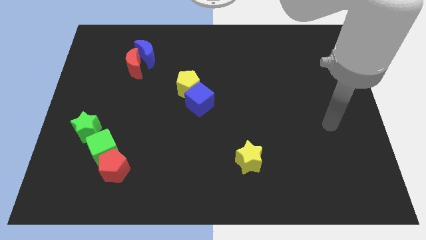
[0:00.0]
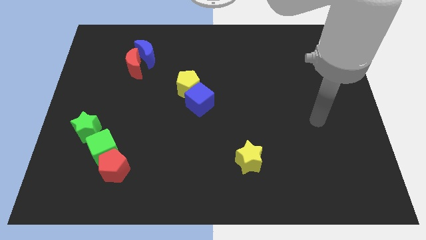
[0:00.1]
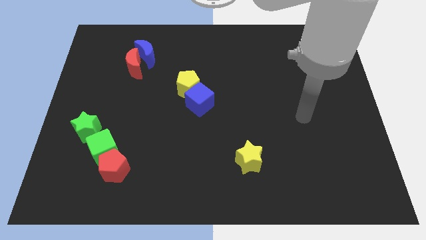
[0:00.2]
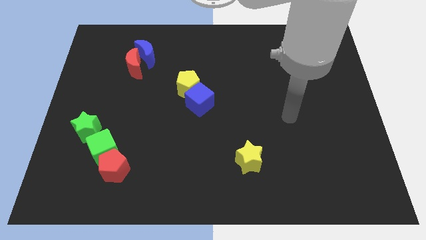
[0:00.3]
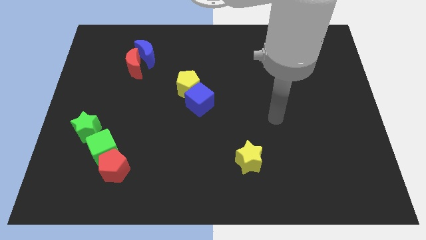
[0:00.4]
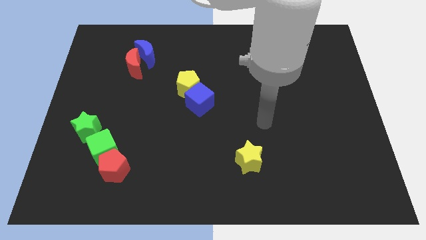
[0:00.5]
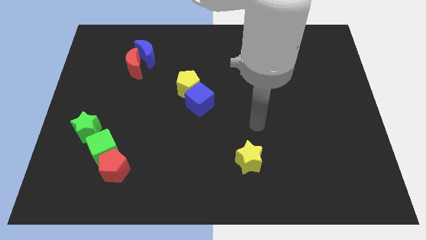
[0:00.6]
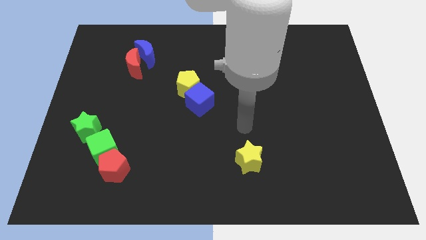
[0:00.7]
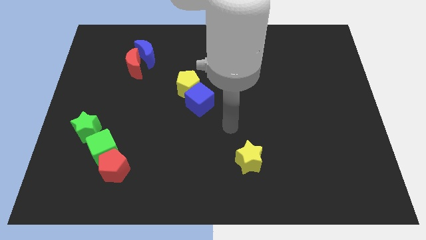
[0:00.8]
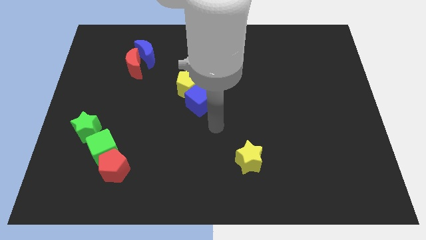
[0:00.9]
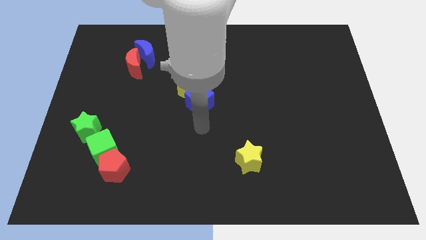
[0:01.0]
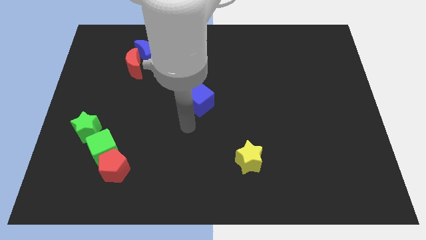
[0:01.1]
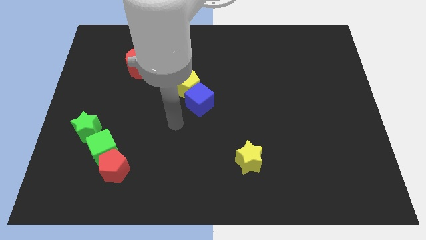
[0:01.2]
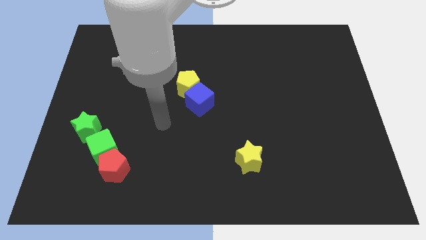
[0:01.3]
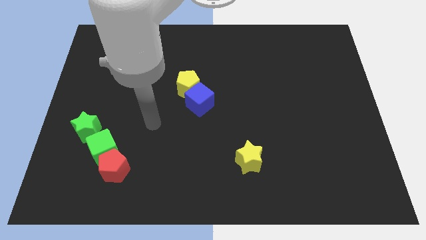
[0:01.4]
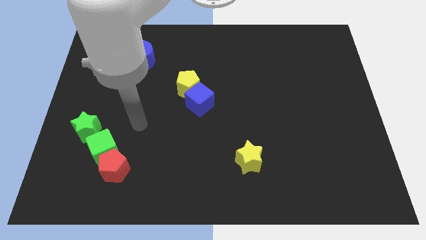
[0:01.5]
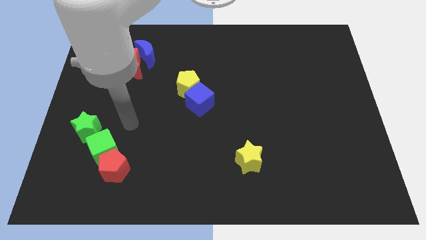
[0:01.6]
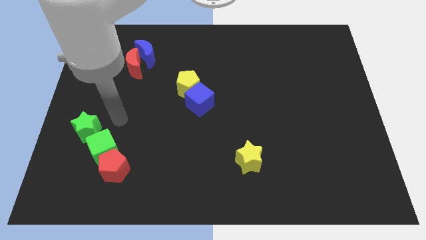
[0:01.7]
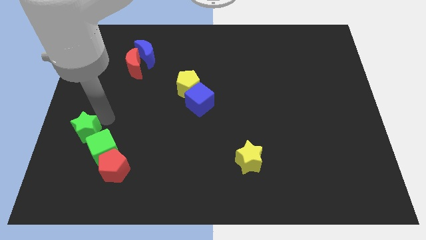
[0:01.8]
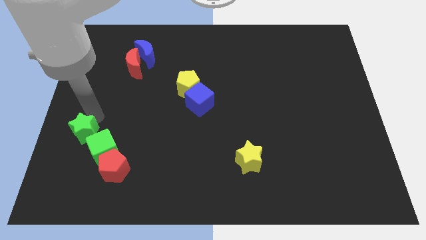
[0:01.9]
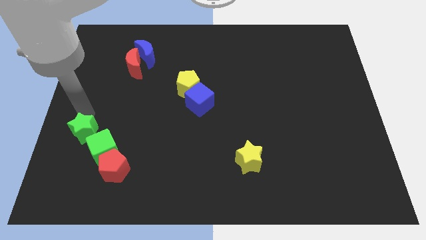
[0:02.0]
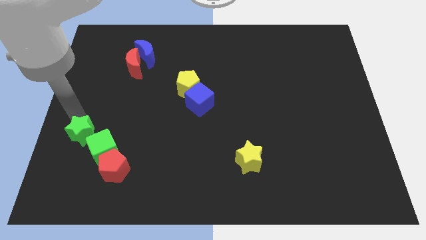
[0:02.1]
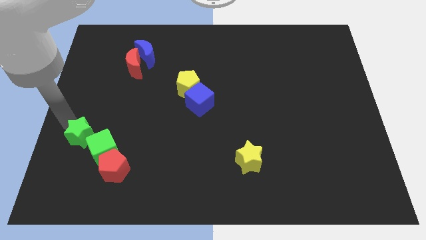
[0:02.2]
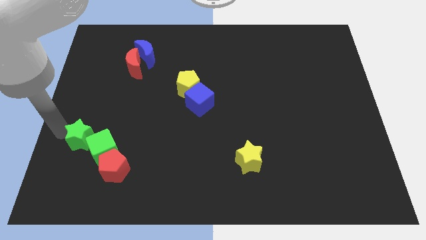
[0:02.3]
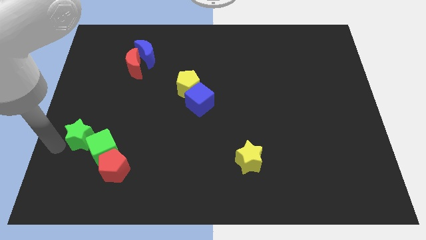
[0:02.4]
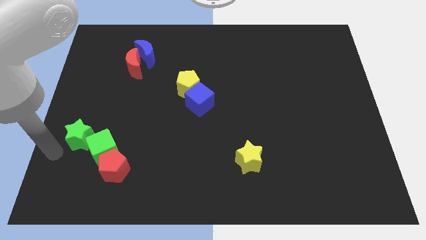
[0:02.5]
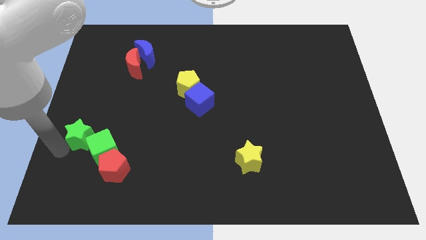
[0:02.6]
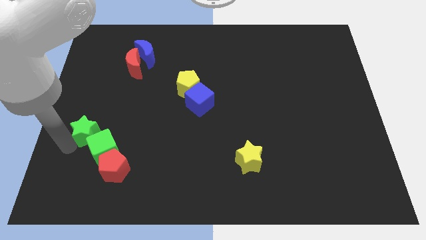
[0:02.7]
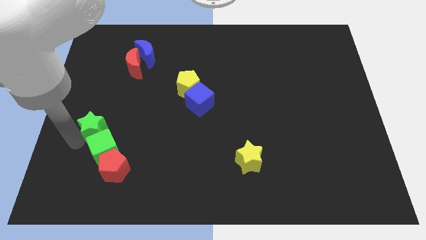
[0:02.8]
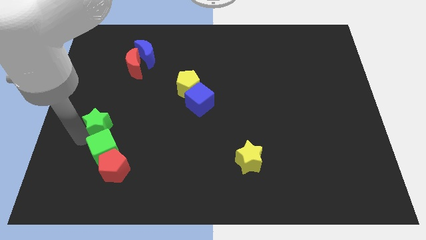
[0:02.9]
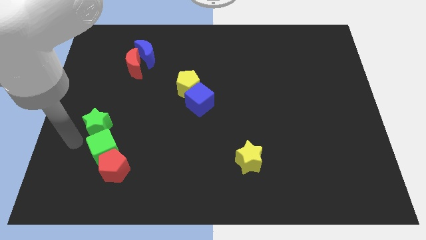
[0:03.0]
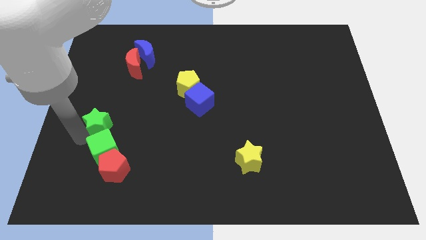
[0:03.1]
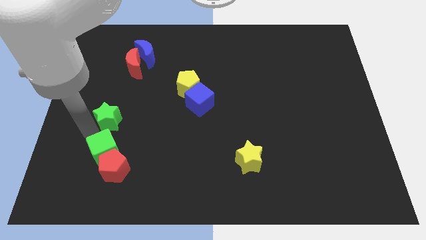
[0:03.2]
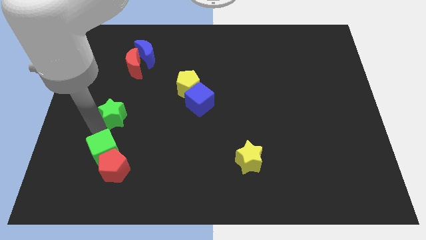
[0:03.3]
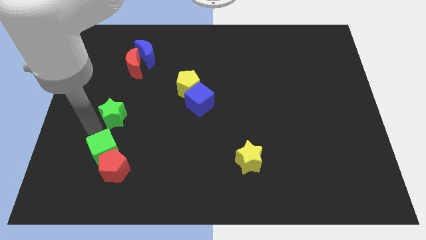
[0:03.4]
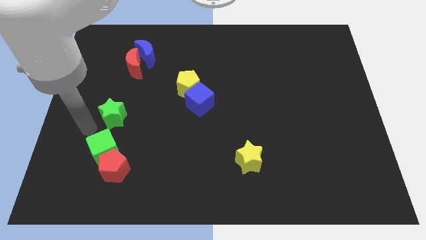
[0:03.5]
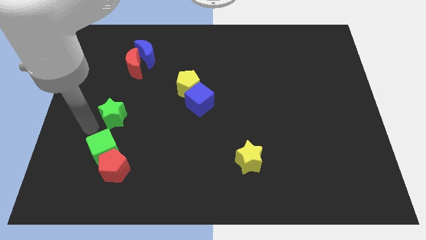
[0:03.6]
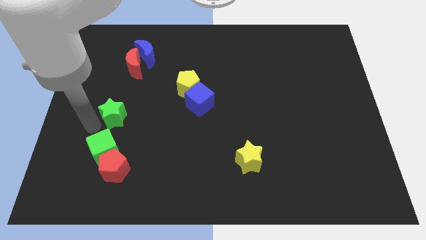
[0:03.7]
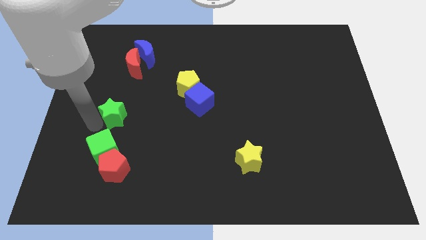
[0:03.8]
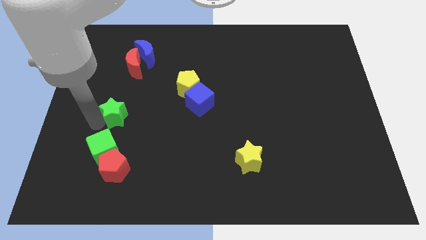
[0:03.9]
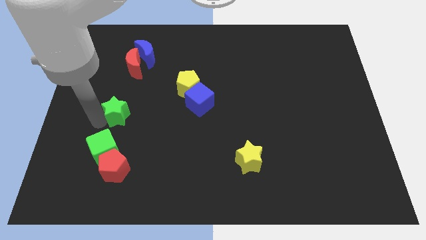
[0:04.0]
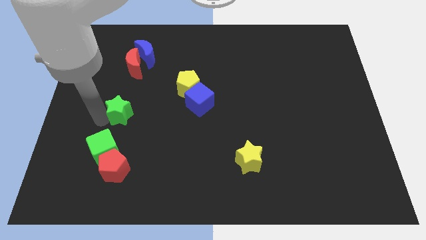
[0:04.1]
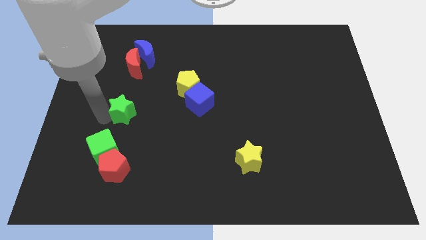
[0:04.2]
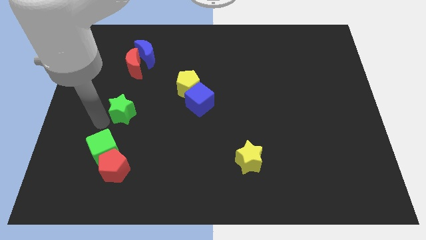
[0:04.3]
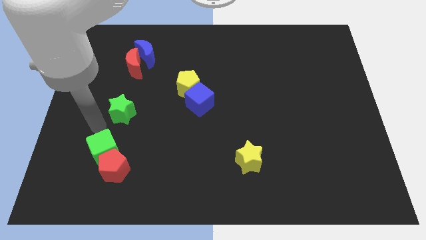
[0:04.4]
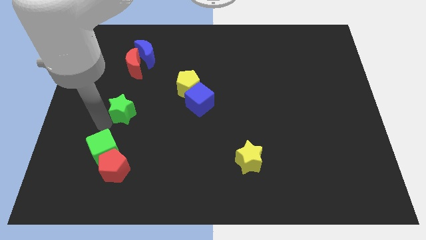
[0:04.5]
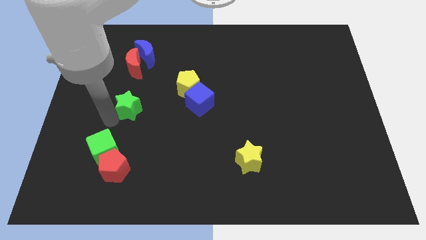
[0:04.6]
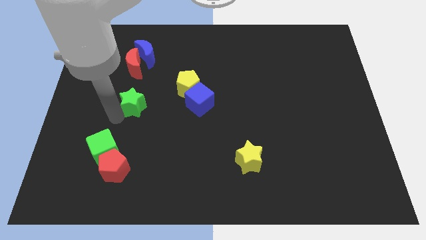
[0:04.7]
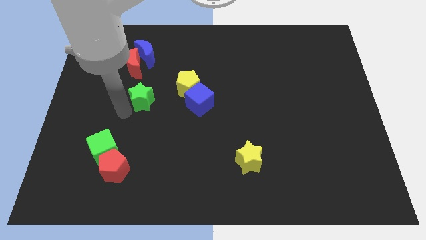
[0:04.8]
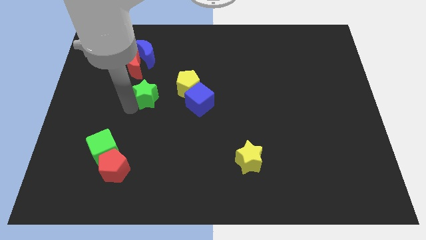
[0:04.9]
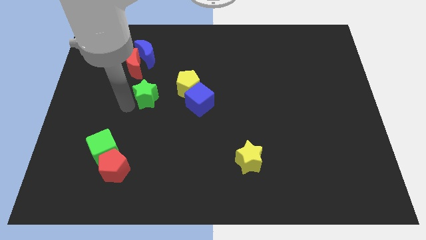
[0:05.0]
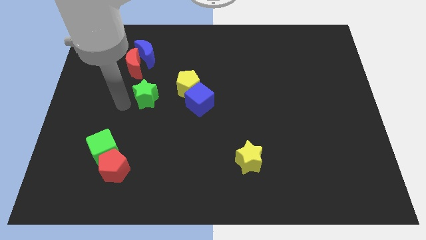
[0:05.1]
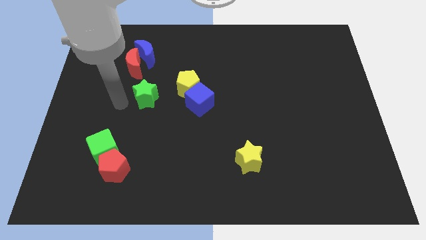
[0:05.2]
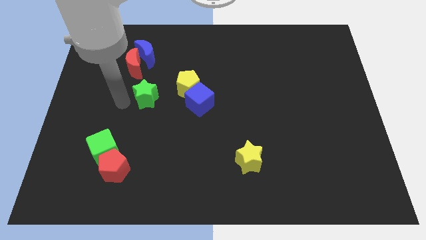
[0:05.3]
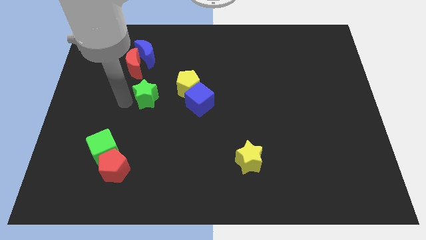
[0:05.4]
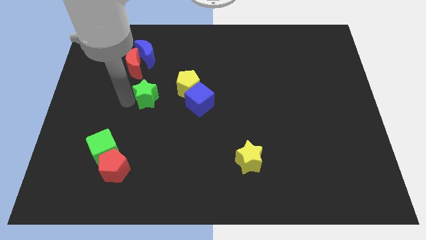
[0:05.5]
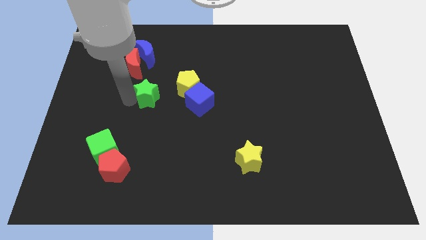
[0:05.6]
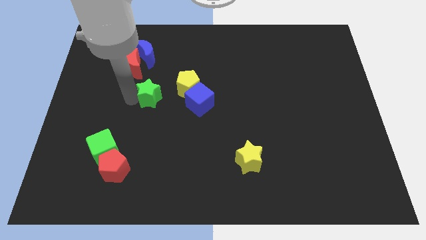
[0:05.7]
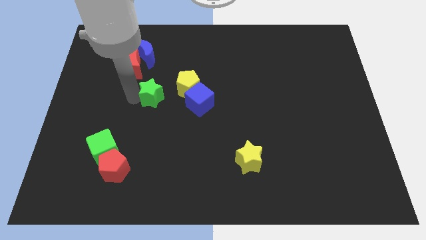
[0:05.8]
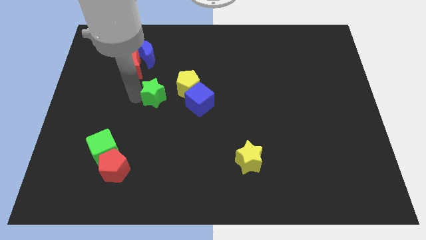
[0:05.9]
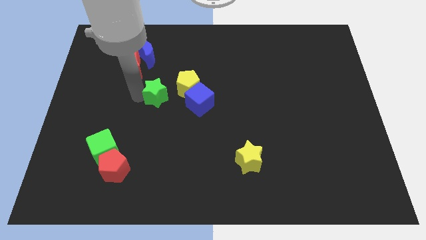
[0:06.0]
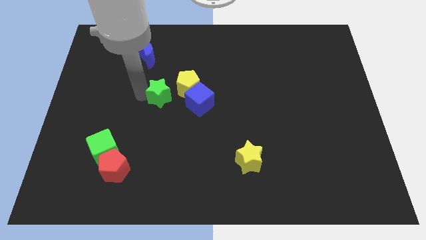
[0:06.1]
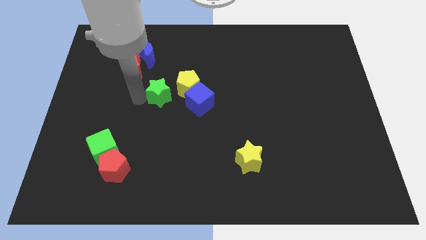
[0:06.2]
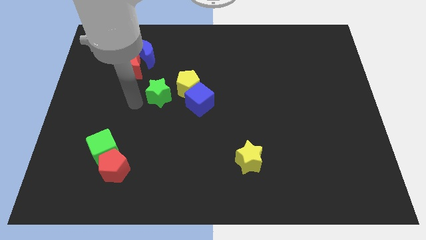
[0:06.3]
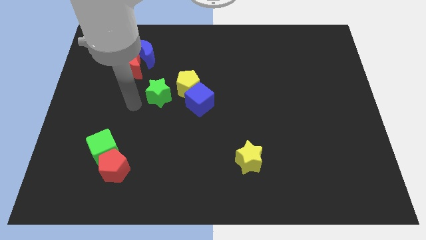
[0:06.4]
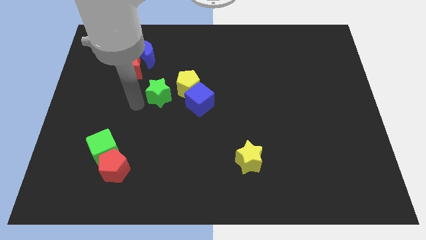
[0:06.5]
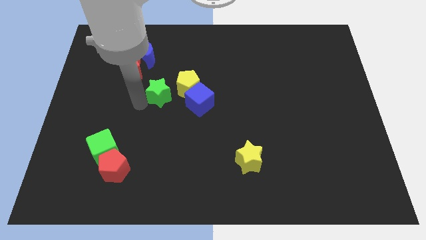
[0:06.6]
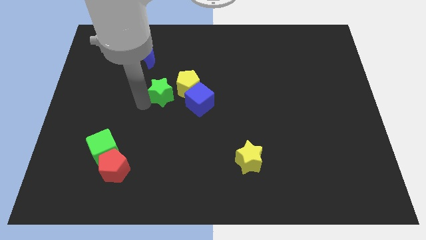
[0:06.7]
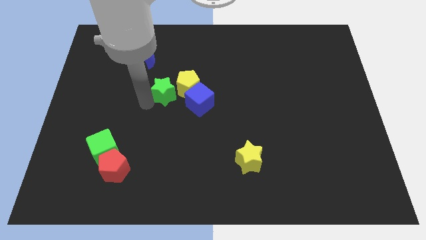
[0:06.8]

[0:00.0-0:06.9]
push the green star next to the yellow pentagon
